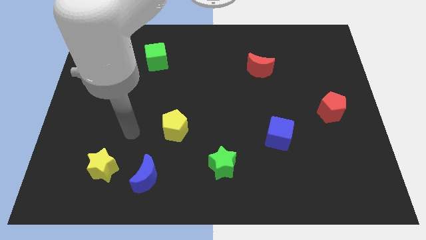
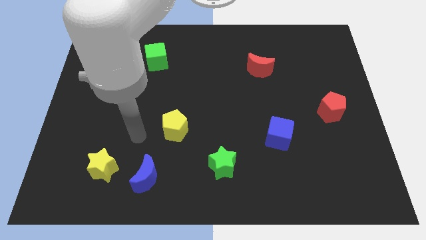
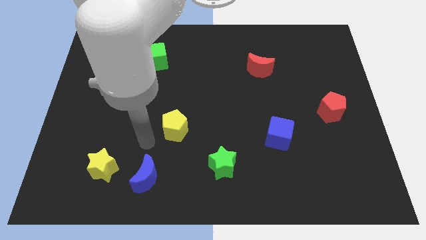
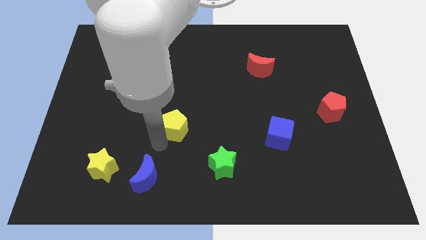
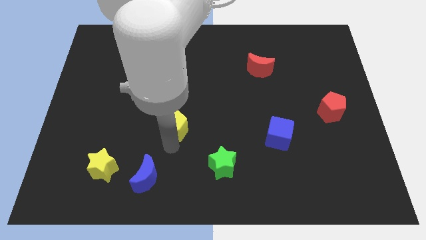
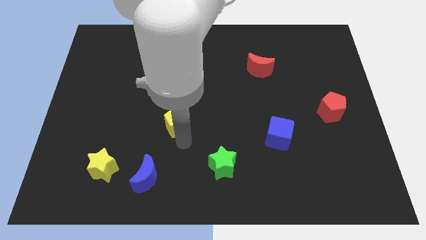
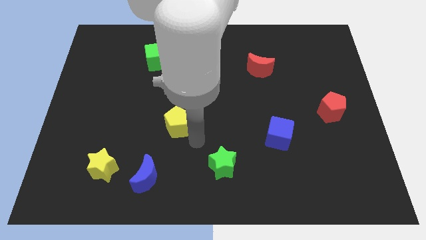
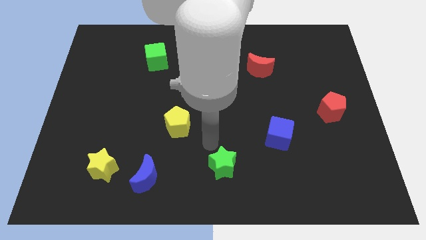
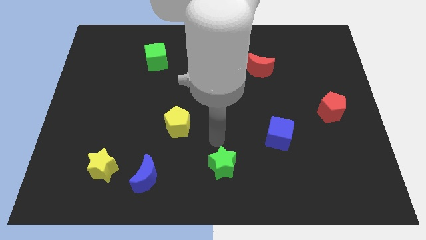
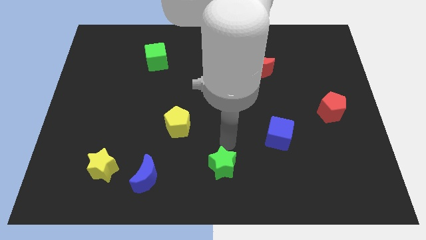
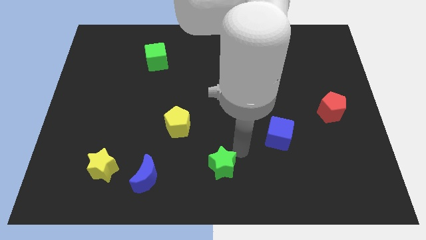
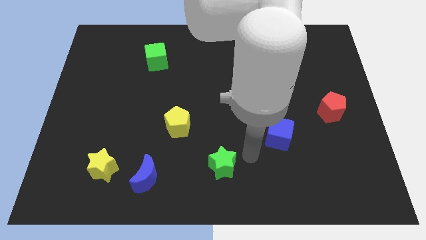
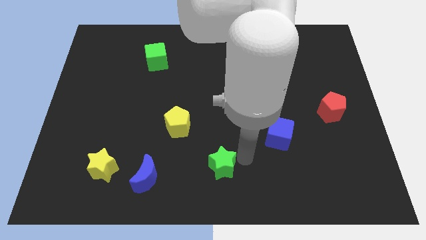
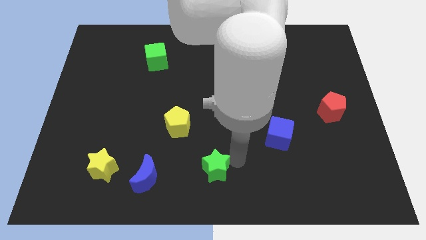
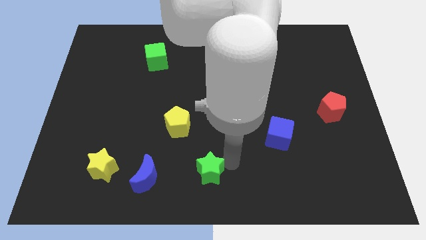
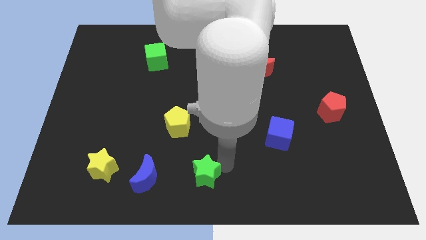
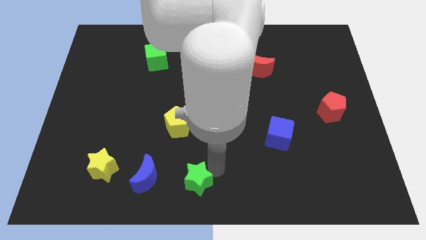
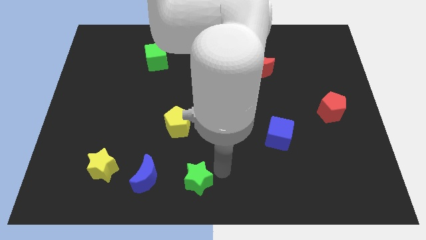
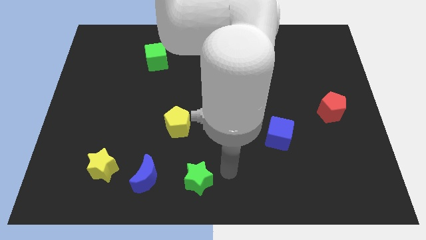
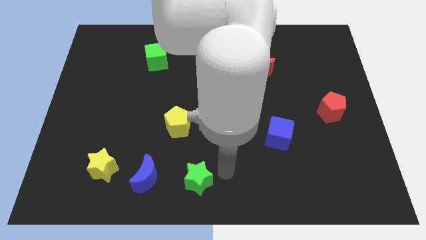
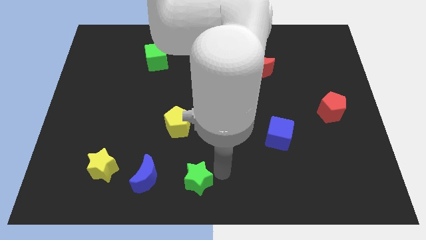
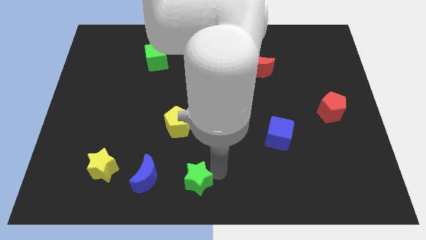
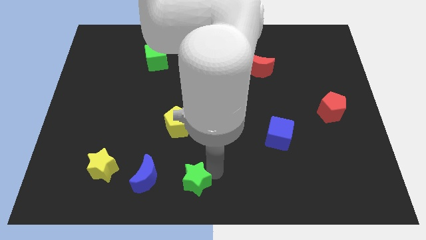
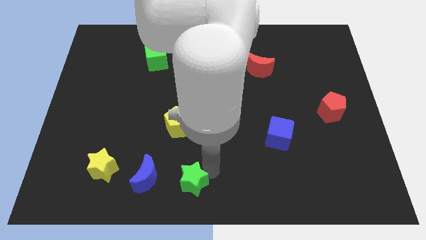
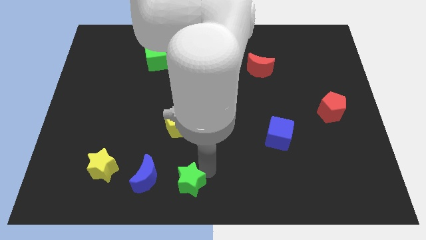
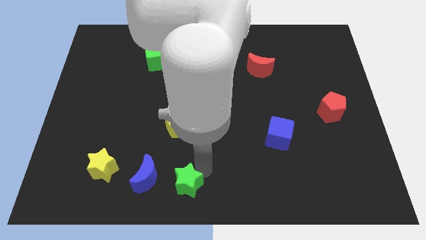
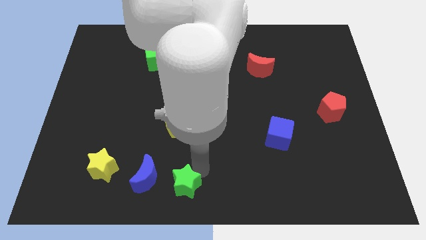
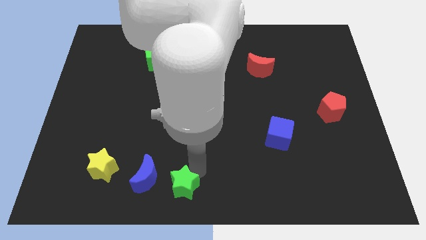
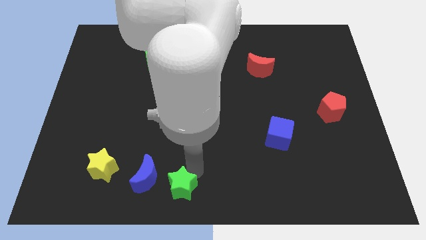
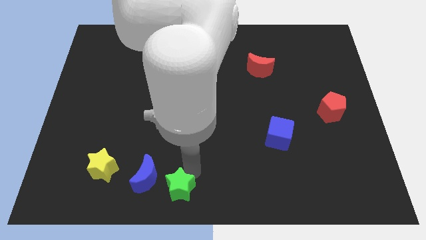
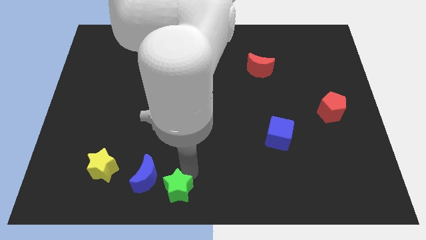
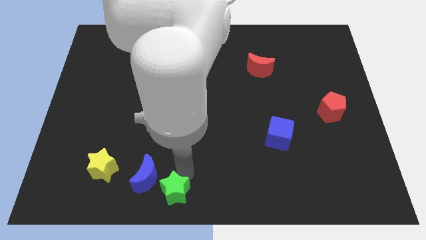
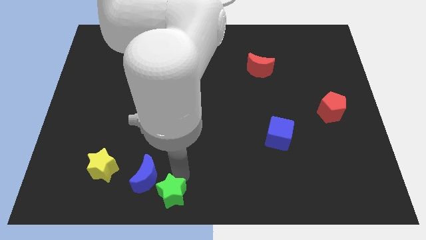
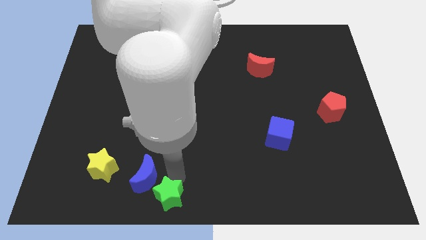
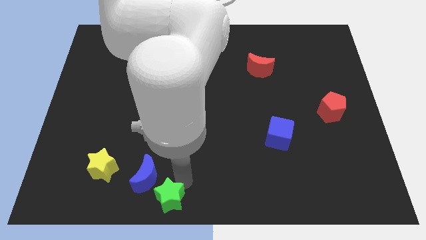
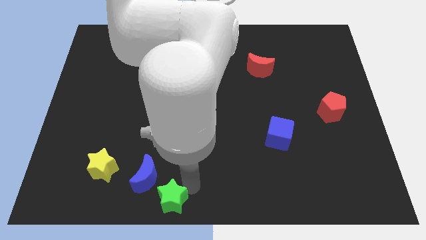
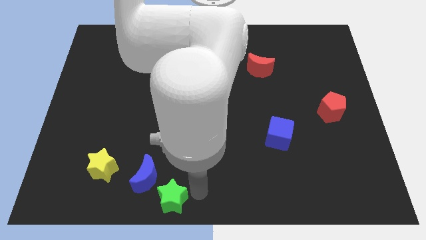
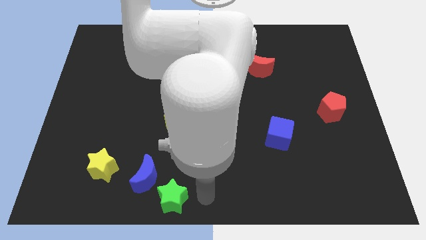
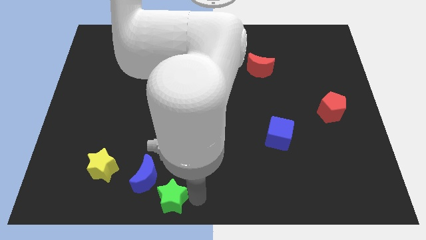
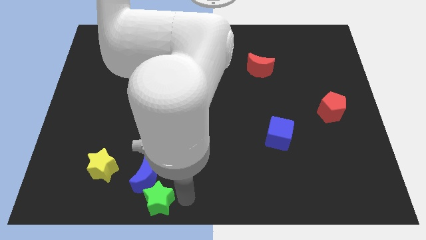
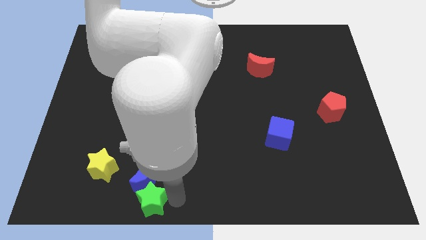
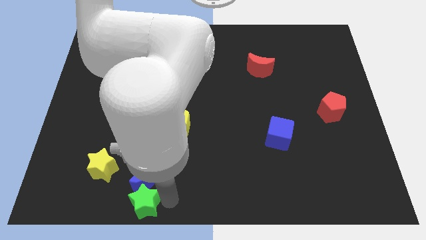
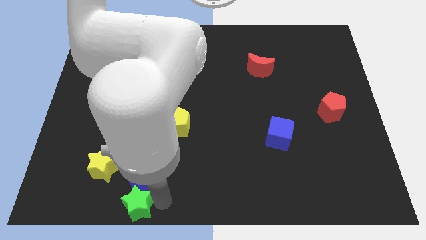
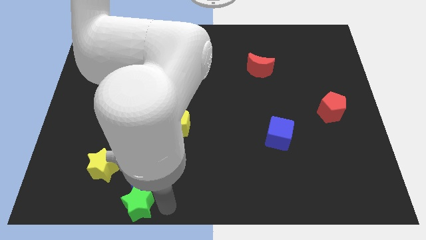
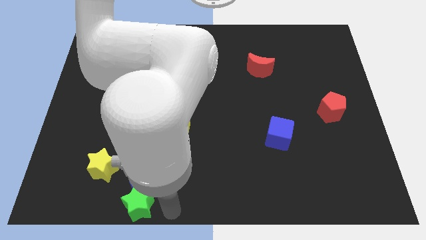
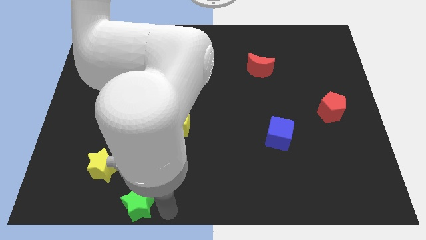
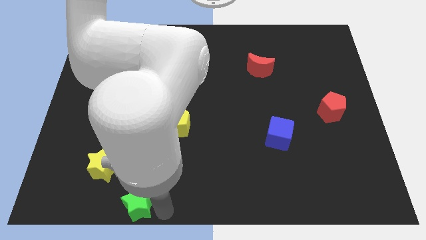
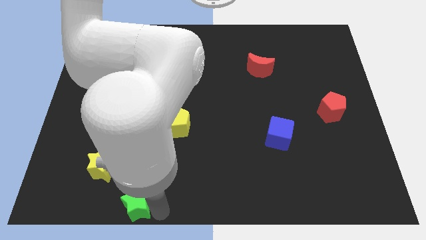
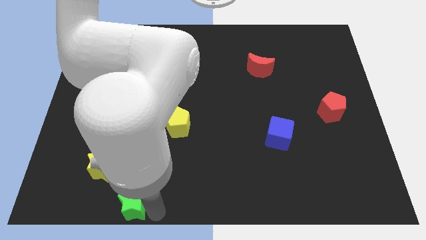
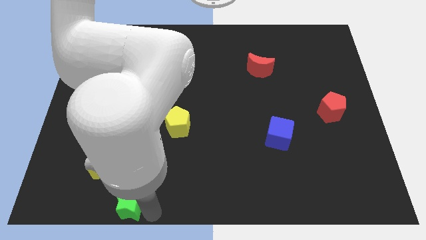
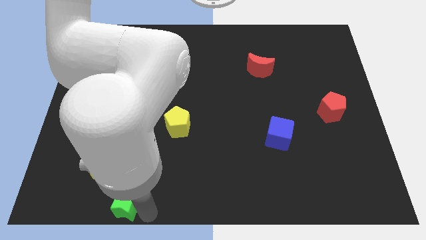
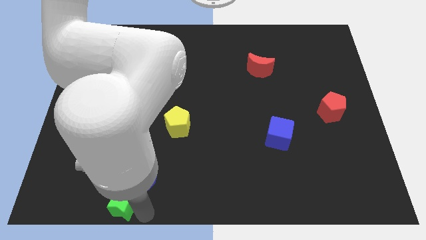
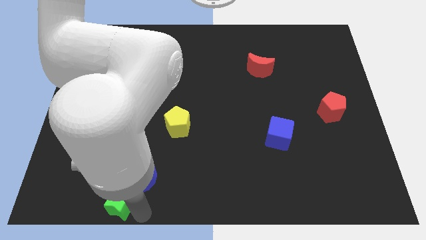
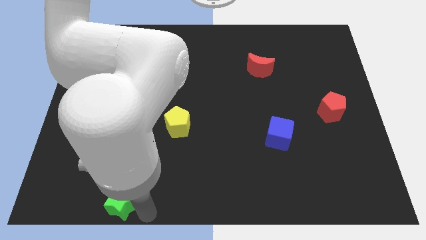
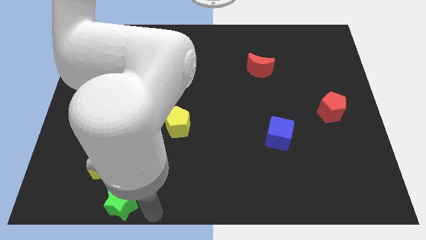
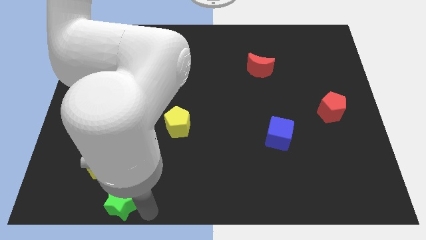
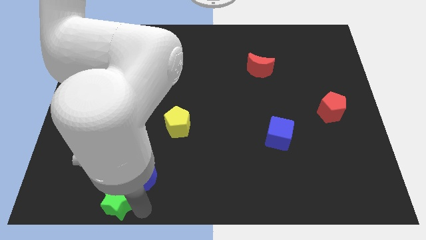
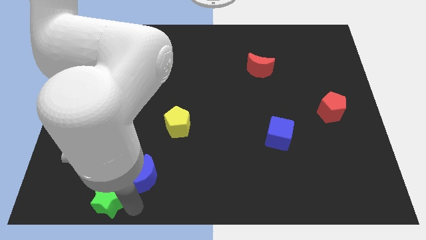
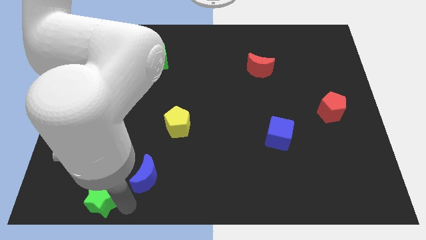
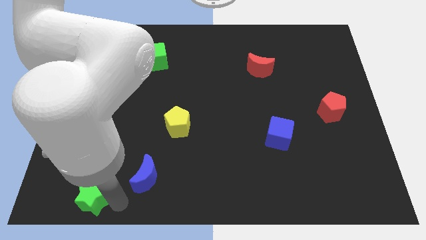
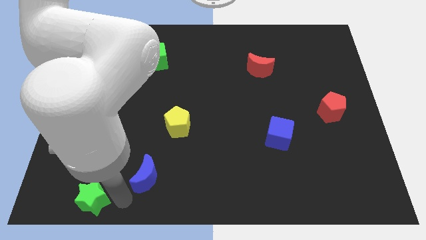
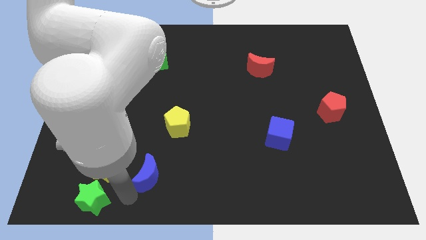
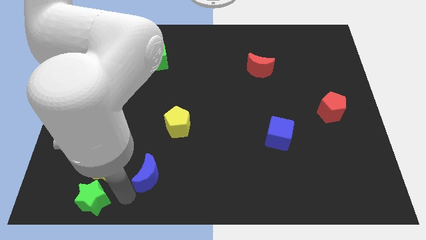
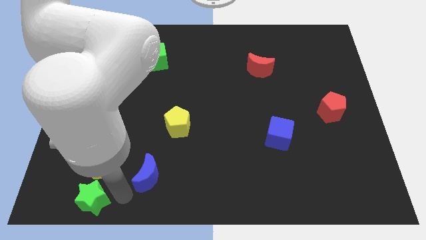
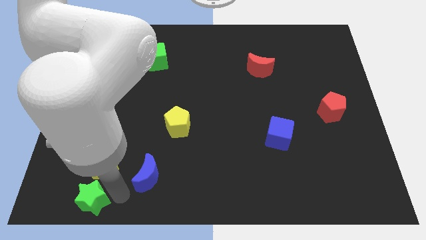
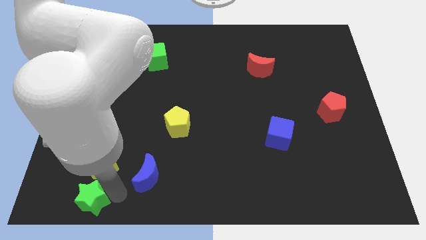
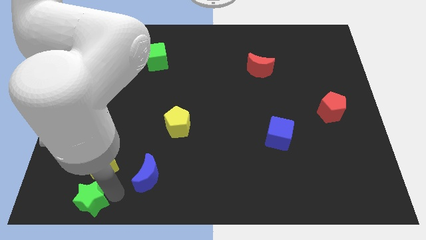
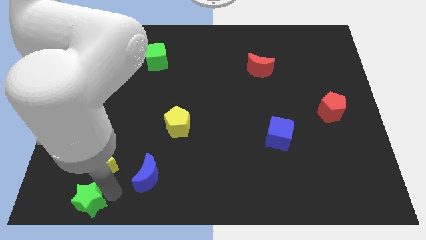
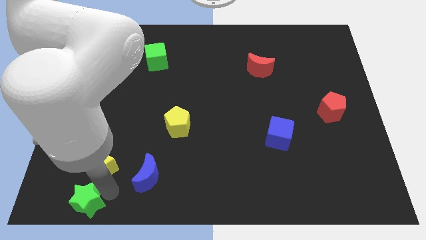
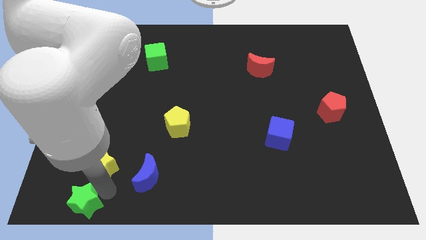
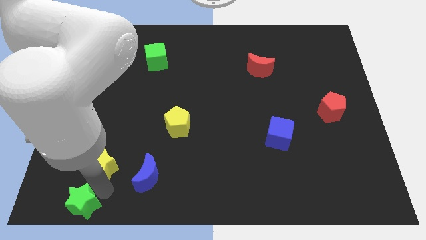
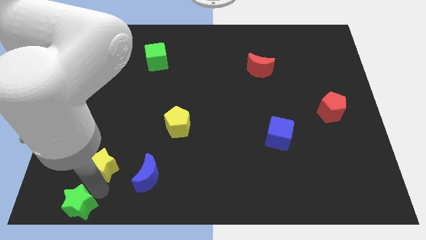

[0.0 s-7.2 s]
move the green star to the lower left corner
